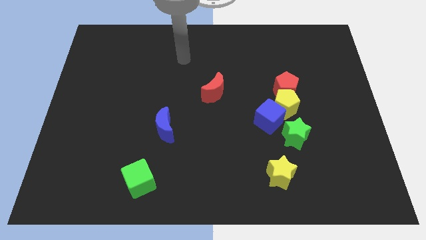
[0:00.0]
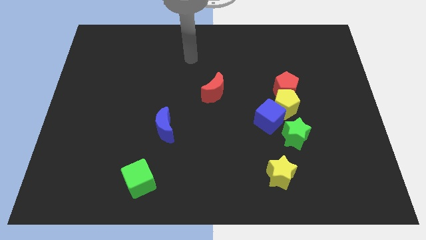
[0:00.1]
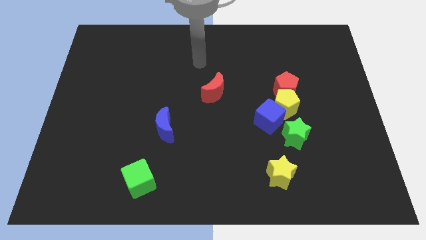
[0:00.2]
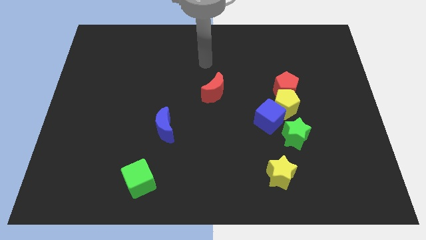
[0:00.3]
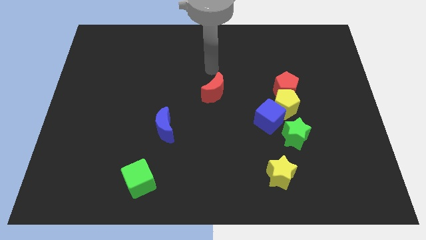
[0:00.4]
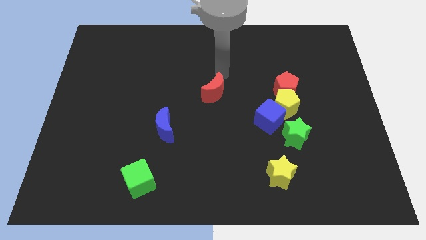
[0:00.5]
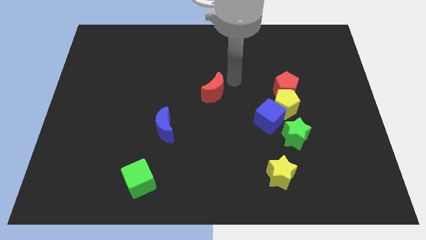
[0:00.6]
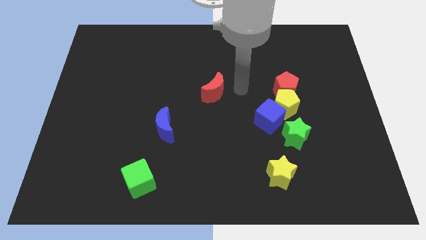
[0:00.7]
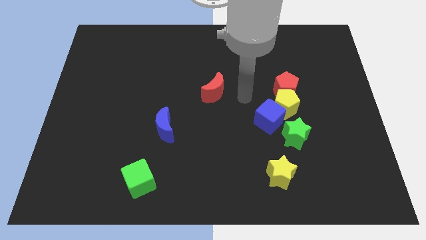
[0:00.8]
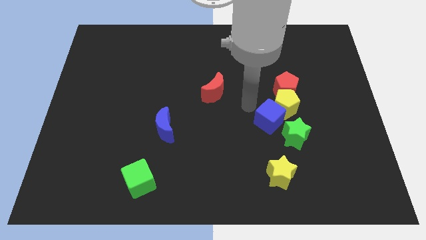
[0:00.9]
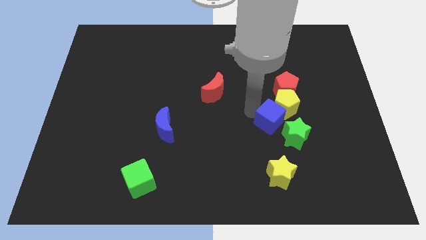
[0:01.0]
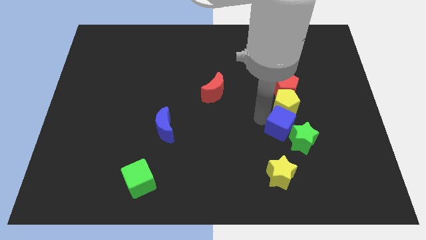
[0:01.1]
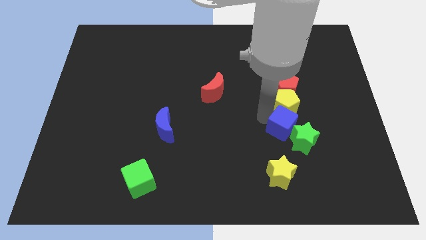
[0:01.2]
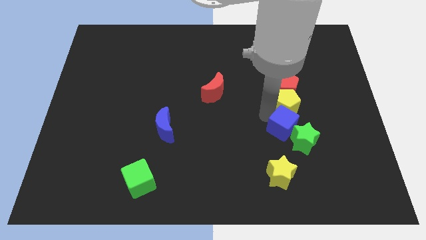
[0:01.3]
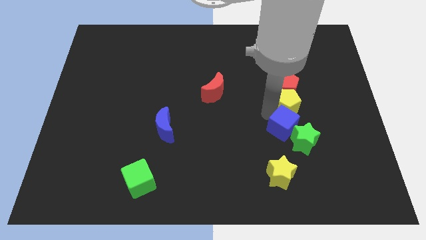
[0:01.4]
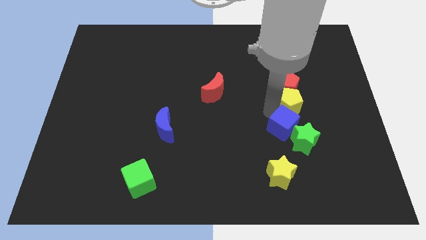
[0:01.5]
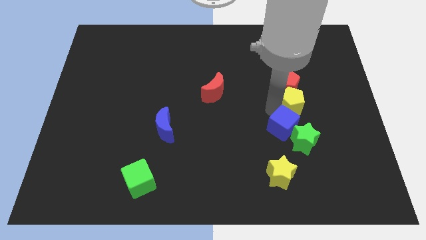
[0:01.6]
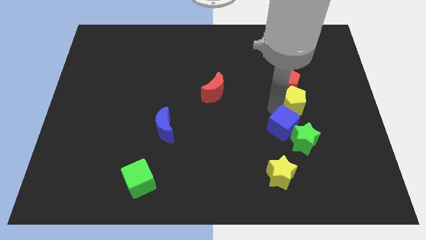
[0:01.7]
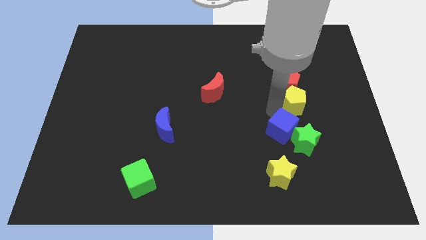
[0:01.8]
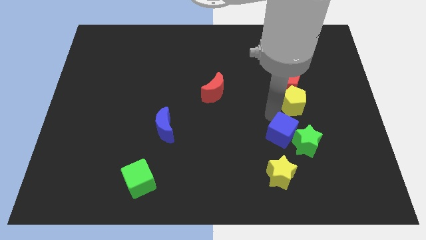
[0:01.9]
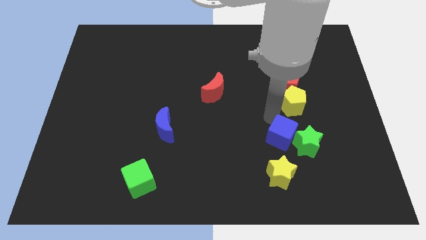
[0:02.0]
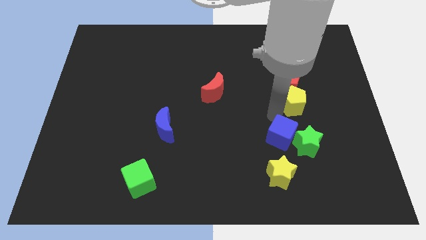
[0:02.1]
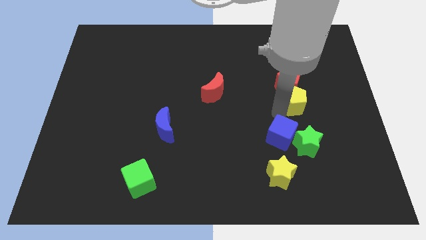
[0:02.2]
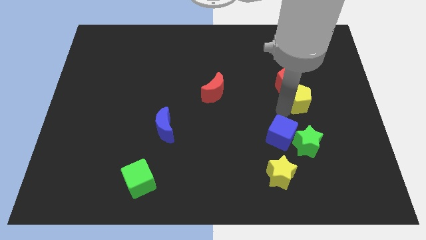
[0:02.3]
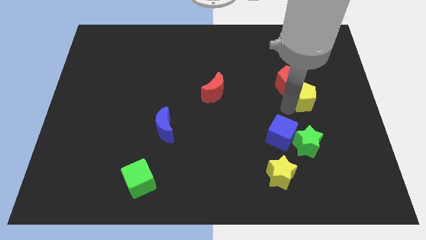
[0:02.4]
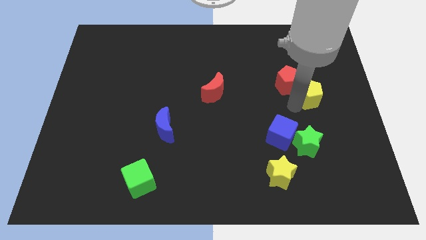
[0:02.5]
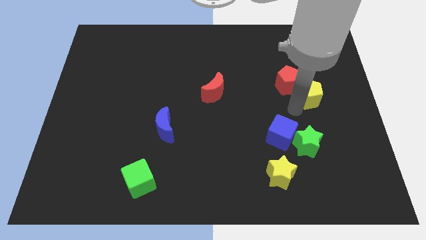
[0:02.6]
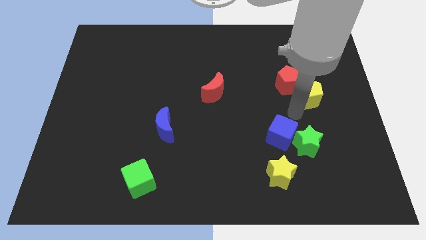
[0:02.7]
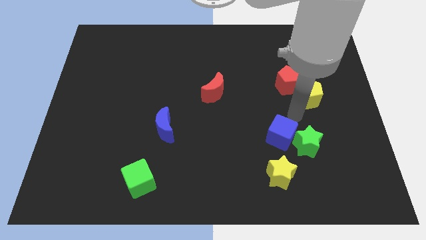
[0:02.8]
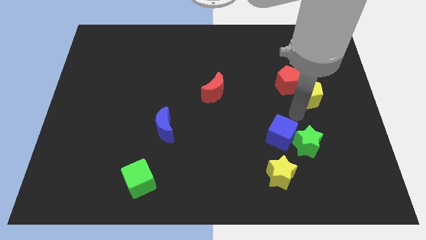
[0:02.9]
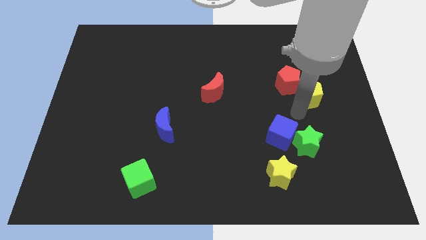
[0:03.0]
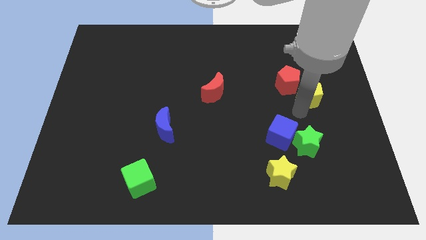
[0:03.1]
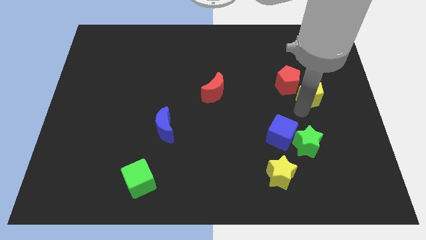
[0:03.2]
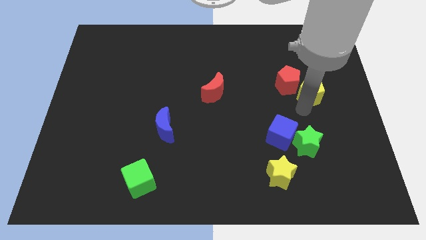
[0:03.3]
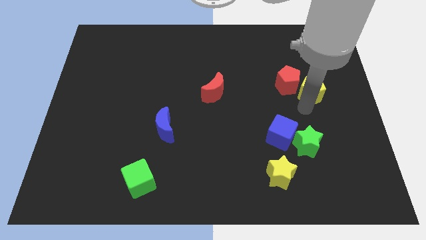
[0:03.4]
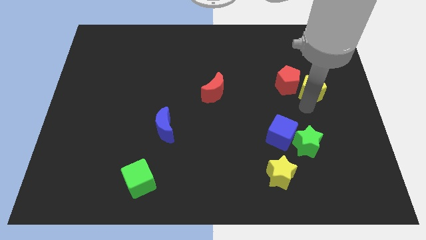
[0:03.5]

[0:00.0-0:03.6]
move the yellow pentagon away from the blue cube, red pentagon, and green star

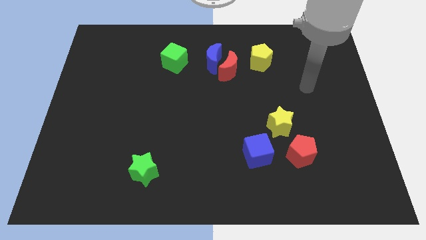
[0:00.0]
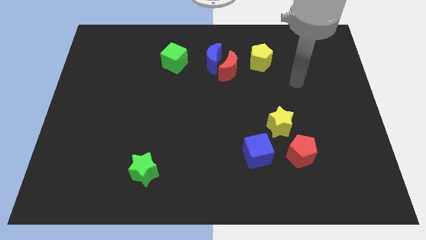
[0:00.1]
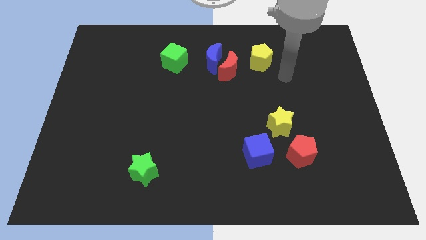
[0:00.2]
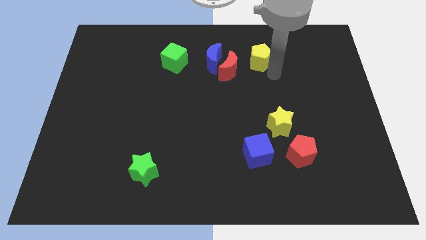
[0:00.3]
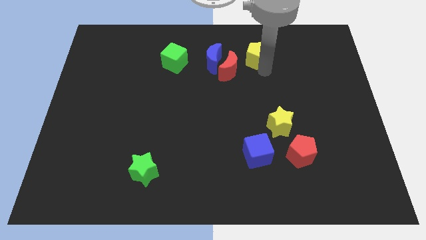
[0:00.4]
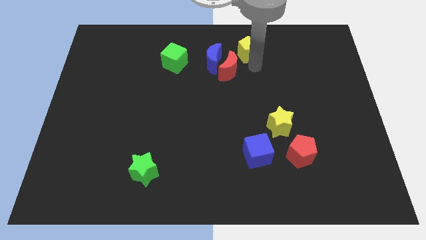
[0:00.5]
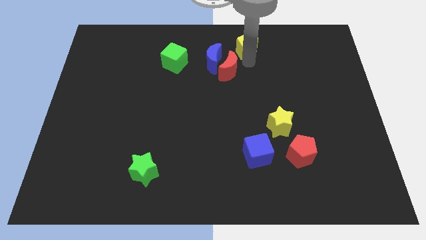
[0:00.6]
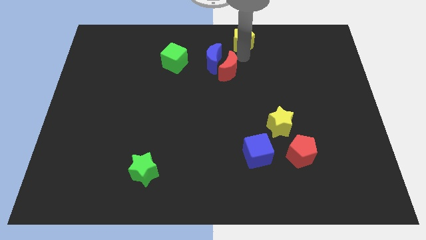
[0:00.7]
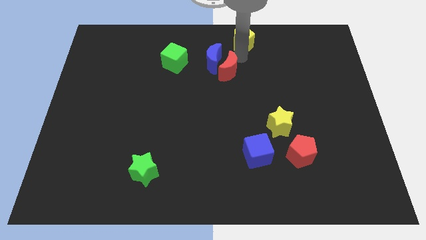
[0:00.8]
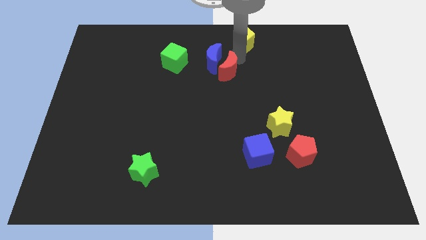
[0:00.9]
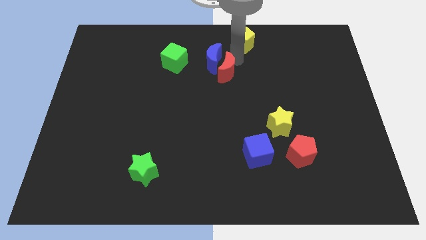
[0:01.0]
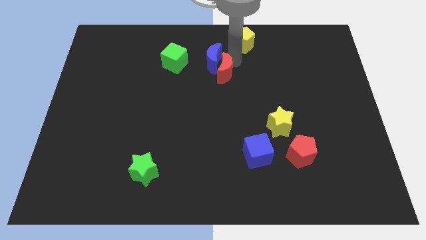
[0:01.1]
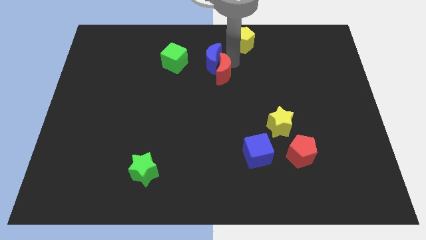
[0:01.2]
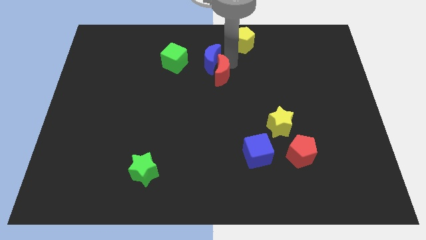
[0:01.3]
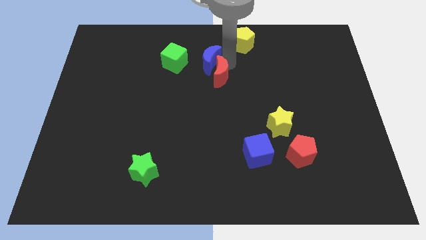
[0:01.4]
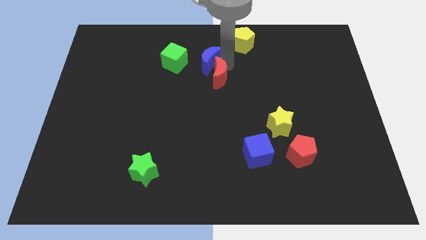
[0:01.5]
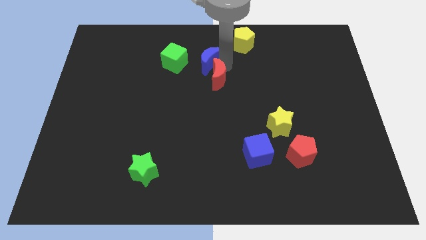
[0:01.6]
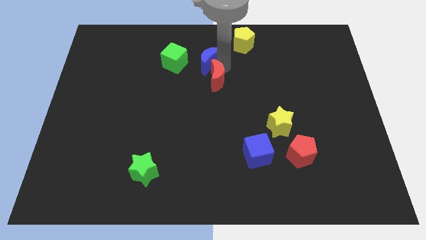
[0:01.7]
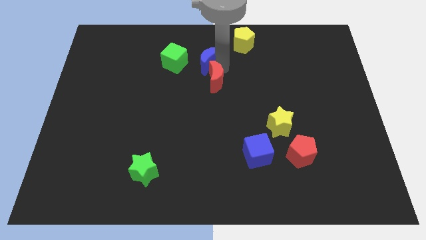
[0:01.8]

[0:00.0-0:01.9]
separate the red moon from the blue moon and yellow pentagon

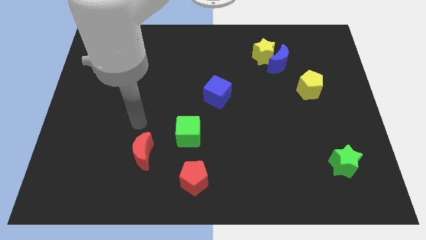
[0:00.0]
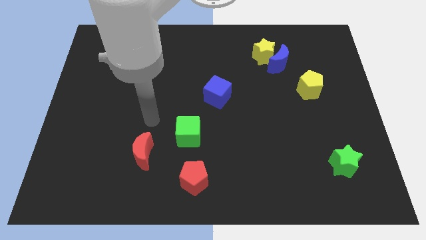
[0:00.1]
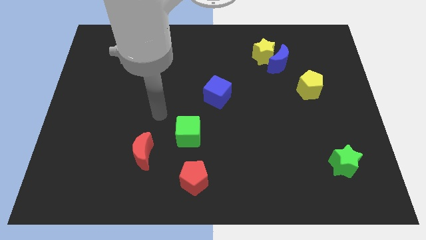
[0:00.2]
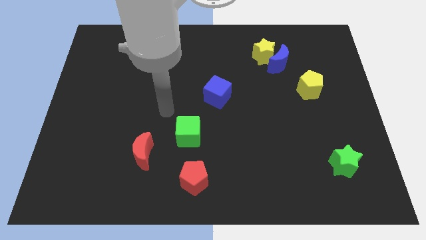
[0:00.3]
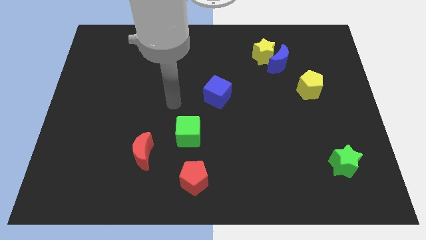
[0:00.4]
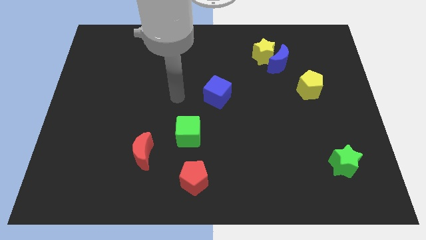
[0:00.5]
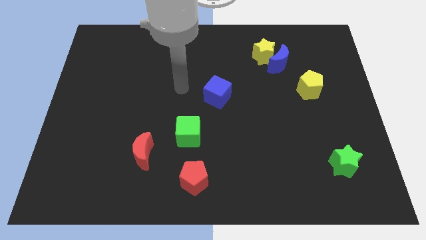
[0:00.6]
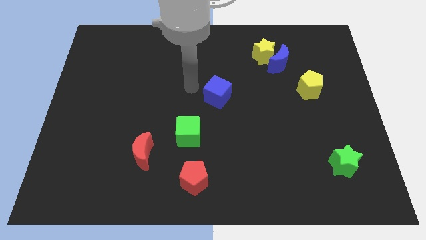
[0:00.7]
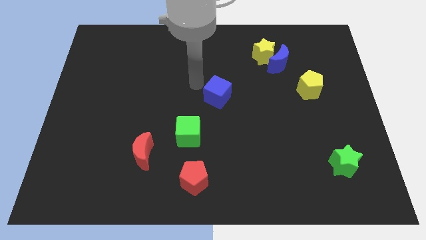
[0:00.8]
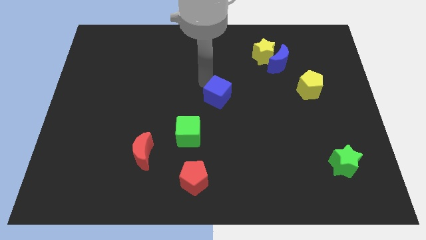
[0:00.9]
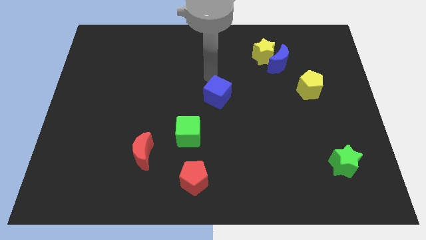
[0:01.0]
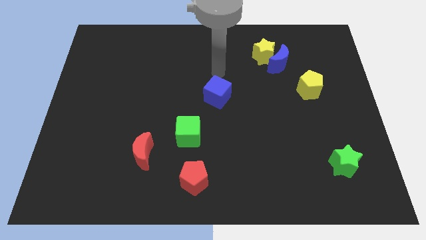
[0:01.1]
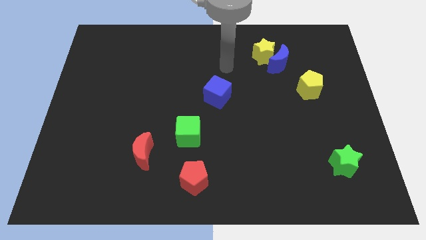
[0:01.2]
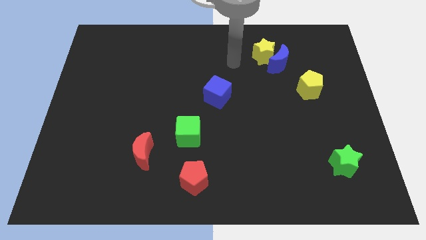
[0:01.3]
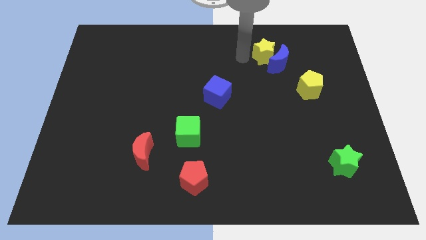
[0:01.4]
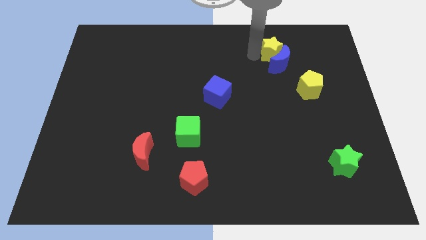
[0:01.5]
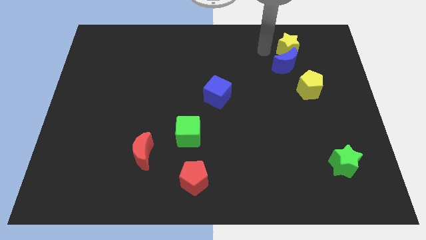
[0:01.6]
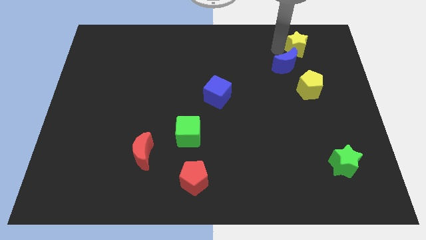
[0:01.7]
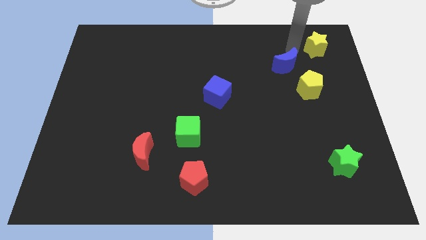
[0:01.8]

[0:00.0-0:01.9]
pull the blue moon apart from the yellow star

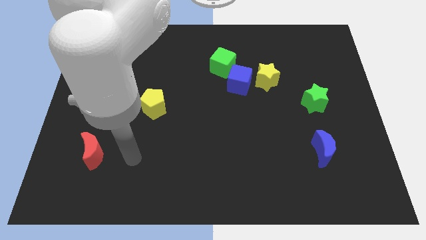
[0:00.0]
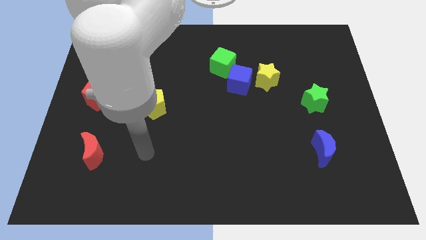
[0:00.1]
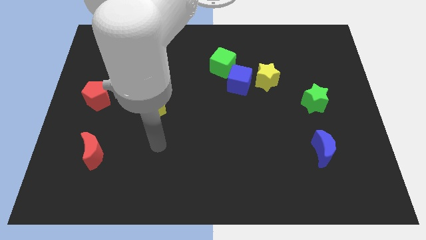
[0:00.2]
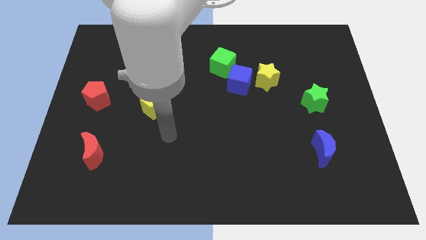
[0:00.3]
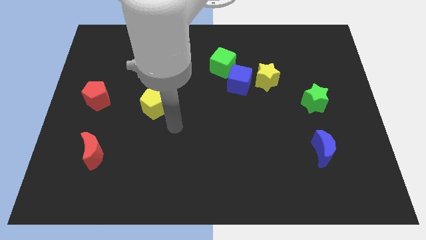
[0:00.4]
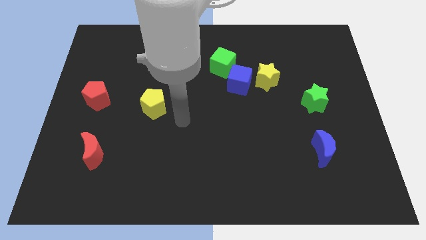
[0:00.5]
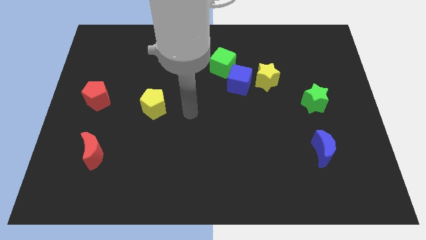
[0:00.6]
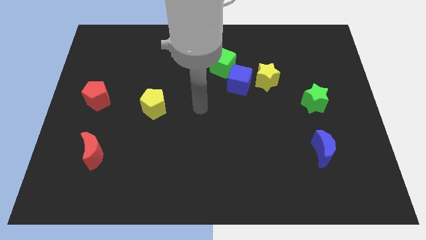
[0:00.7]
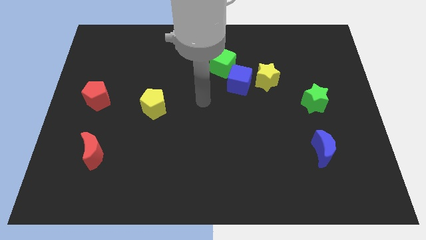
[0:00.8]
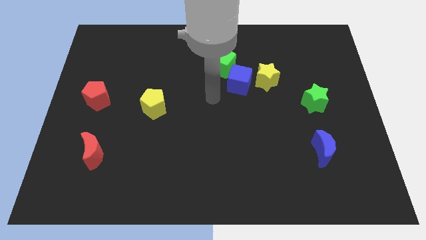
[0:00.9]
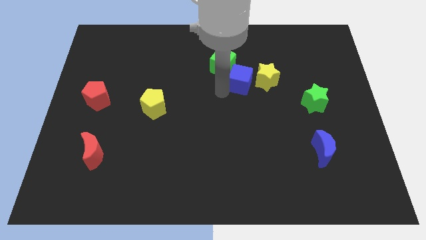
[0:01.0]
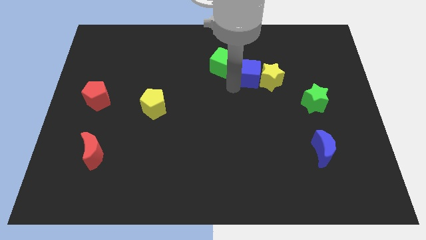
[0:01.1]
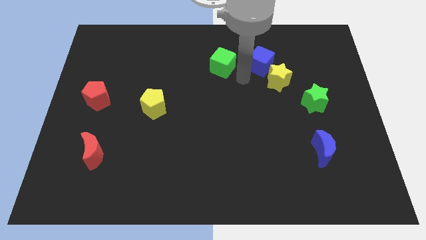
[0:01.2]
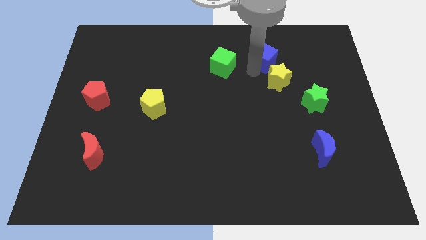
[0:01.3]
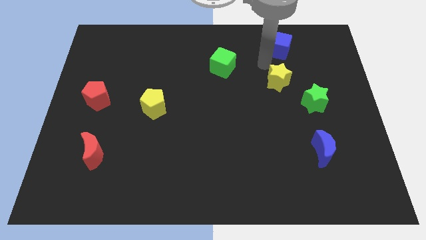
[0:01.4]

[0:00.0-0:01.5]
pull the yellow star apart from the blue cube

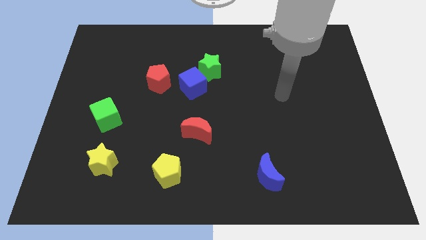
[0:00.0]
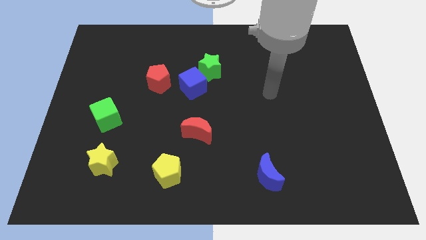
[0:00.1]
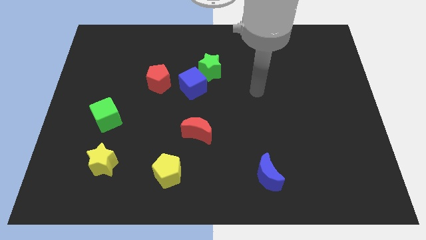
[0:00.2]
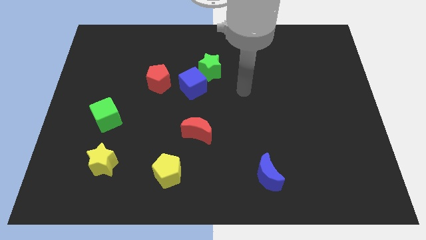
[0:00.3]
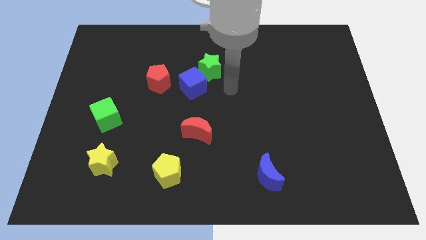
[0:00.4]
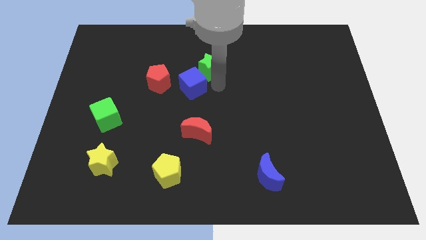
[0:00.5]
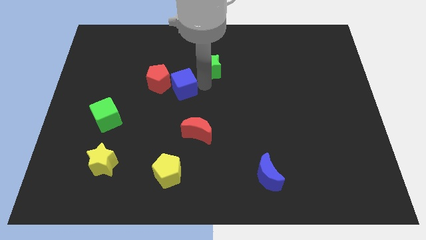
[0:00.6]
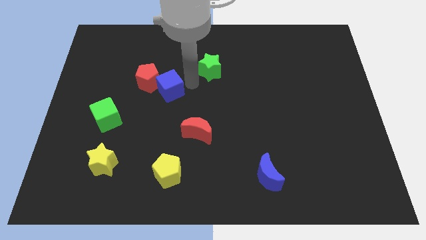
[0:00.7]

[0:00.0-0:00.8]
pull the green star apart from the blue cube
